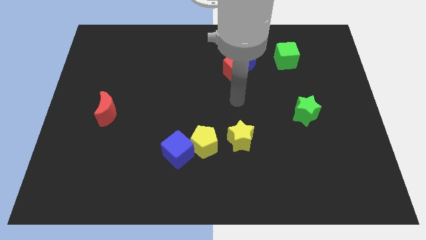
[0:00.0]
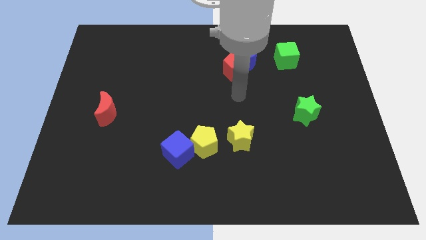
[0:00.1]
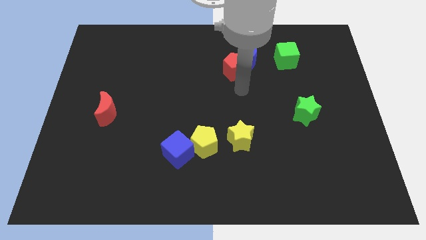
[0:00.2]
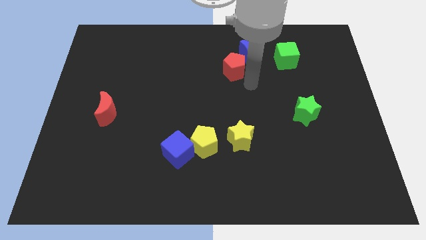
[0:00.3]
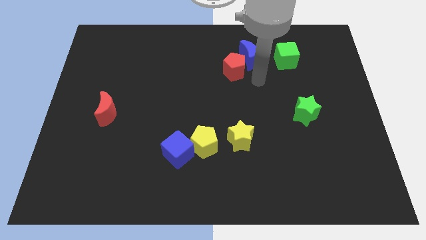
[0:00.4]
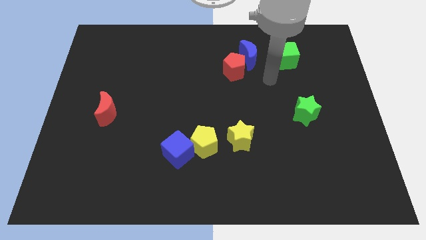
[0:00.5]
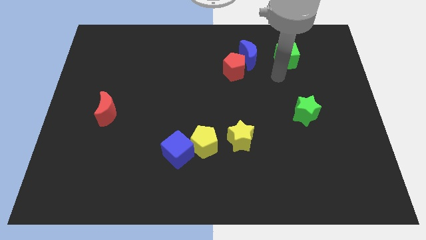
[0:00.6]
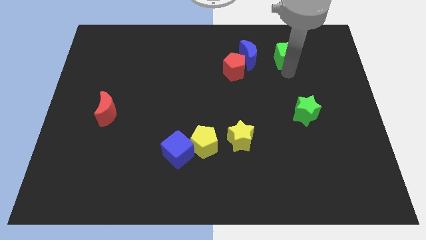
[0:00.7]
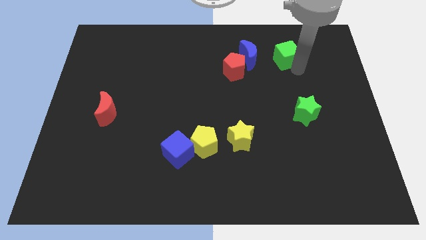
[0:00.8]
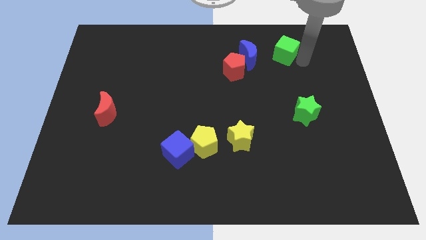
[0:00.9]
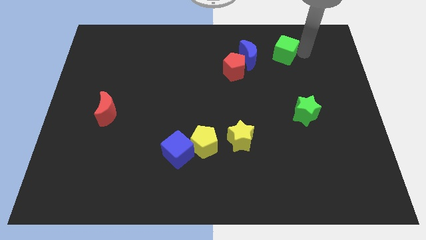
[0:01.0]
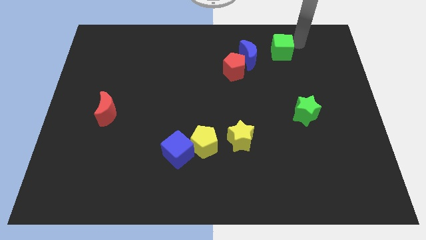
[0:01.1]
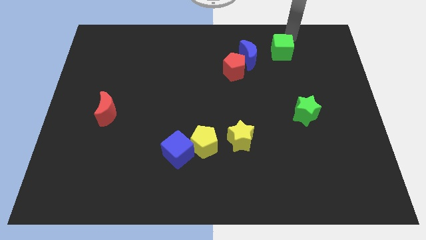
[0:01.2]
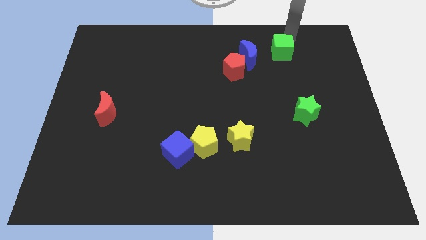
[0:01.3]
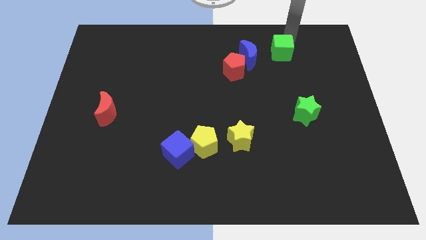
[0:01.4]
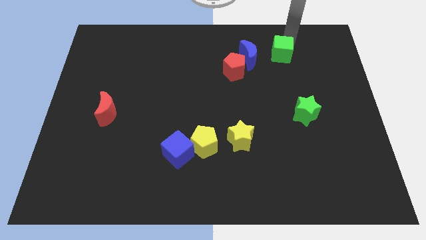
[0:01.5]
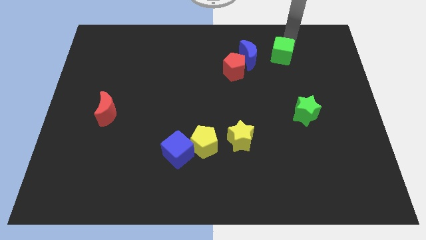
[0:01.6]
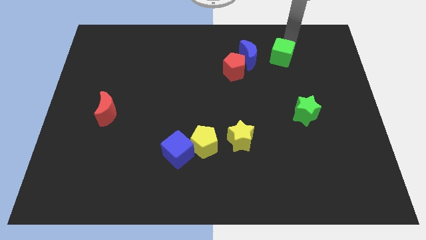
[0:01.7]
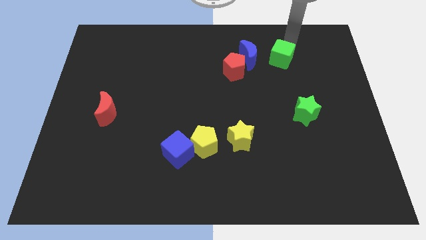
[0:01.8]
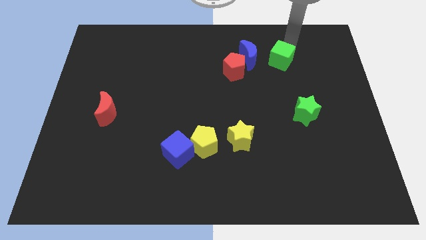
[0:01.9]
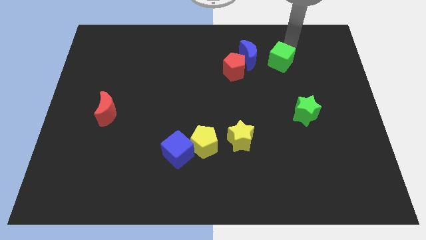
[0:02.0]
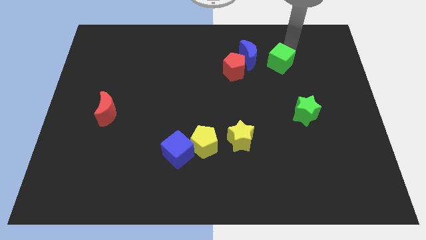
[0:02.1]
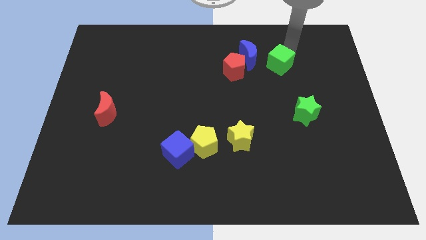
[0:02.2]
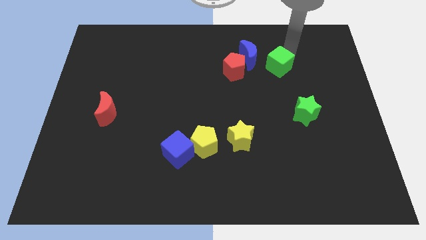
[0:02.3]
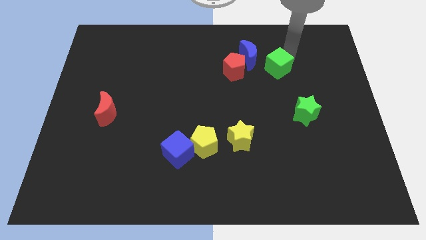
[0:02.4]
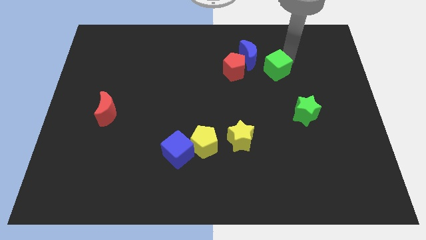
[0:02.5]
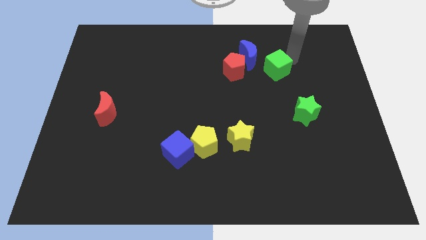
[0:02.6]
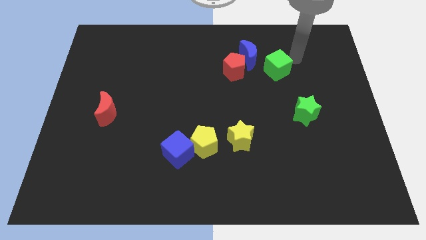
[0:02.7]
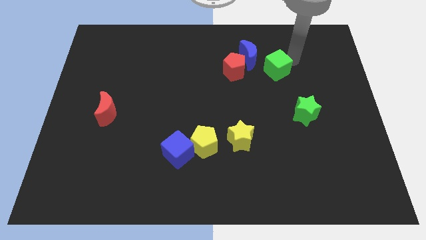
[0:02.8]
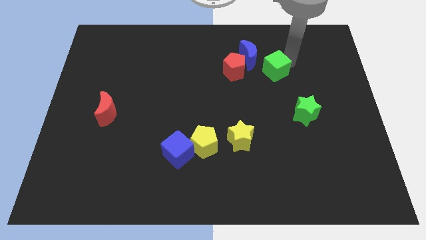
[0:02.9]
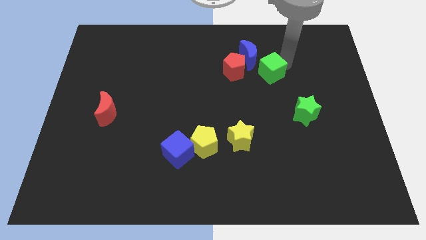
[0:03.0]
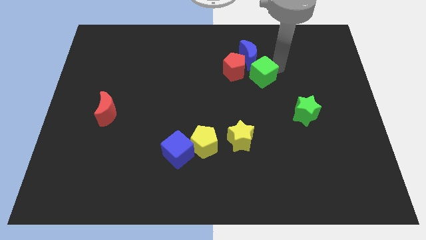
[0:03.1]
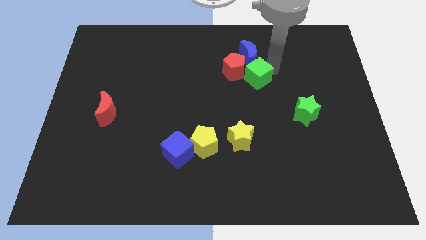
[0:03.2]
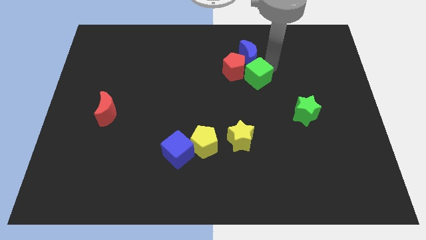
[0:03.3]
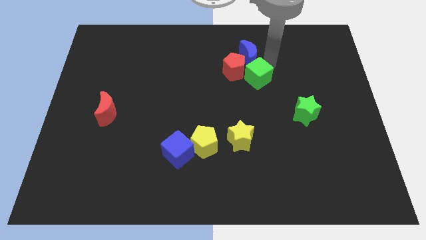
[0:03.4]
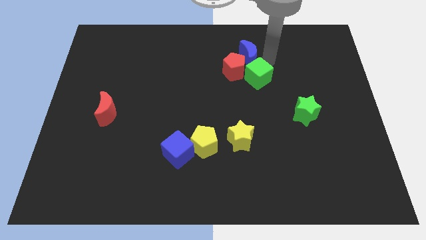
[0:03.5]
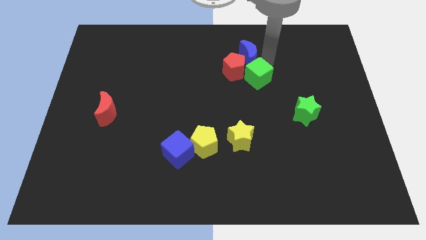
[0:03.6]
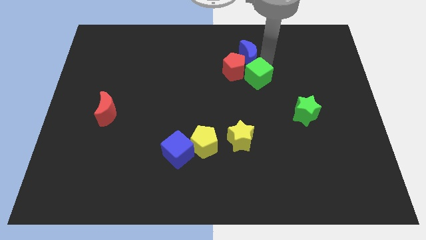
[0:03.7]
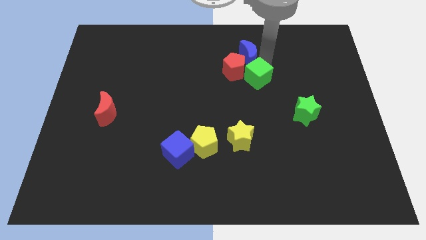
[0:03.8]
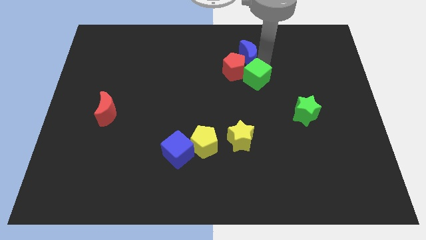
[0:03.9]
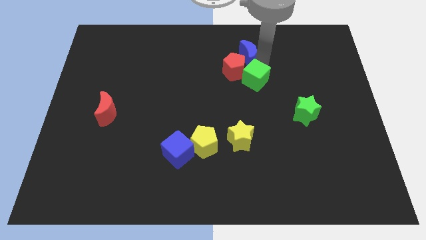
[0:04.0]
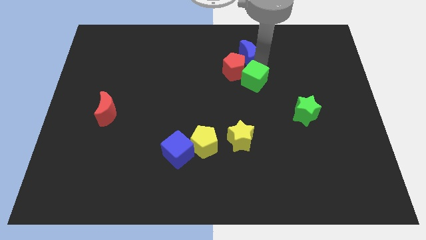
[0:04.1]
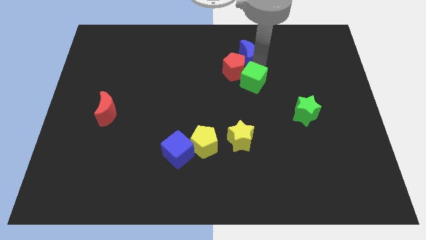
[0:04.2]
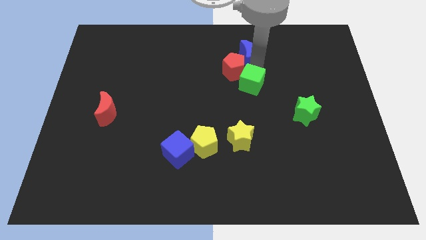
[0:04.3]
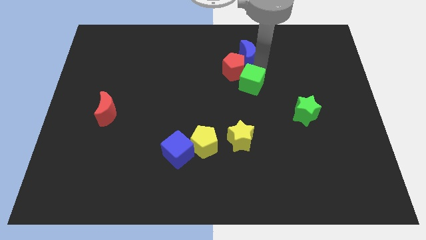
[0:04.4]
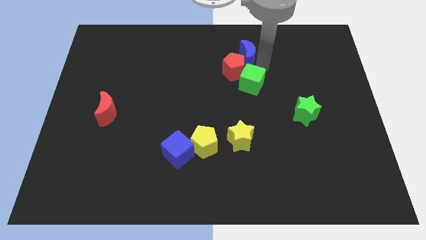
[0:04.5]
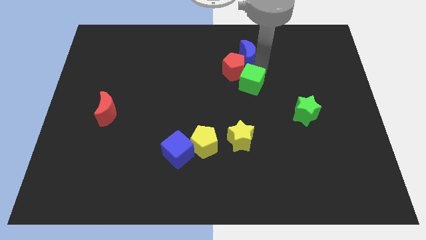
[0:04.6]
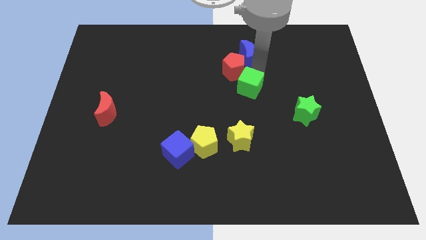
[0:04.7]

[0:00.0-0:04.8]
move the green cube to the top side of the yellow star

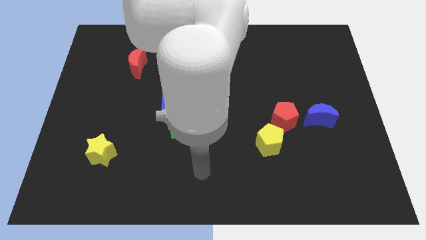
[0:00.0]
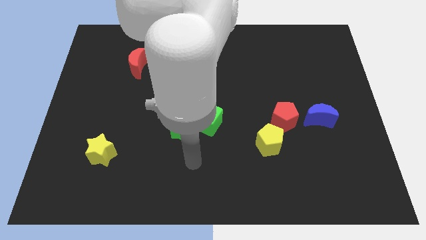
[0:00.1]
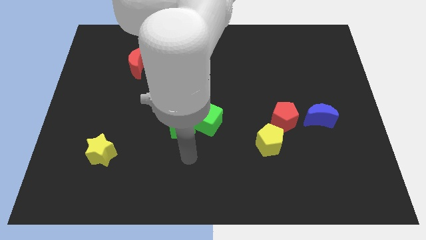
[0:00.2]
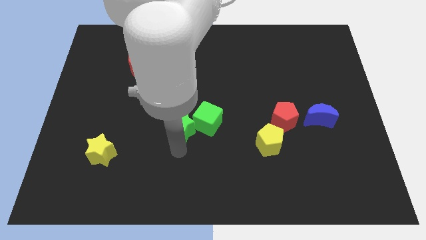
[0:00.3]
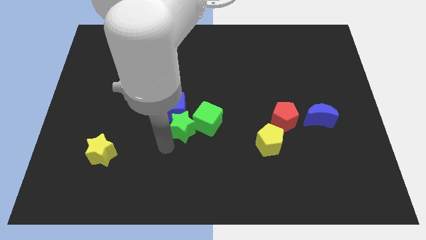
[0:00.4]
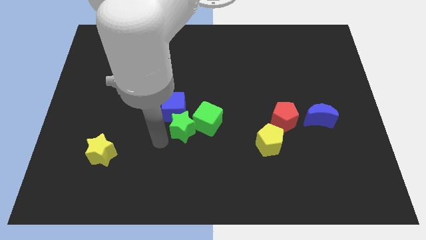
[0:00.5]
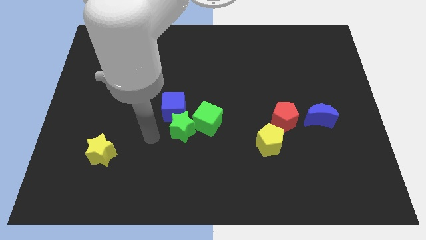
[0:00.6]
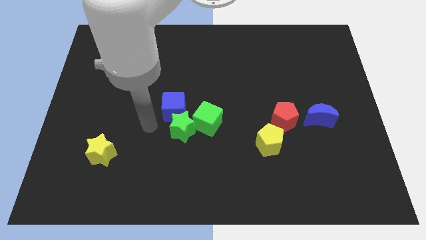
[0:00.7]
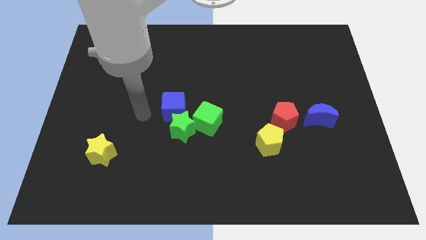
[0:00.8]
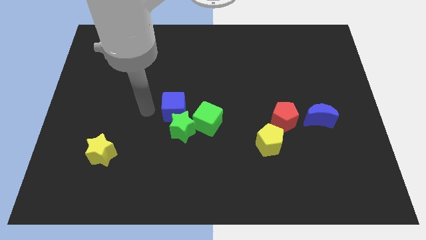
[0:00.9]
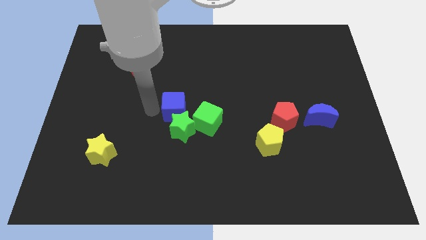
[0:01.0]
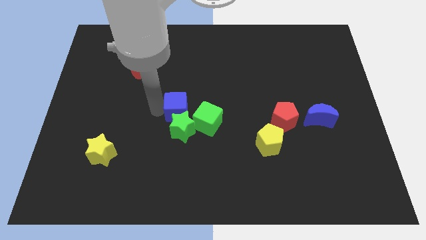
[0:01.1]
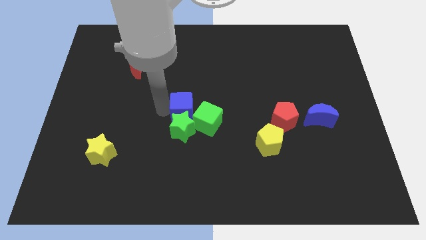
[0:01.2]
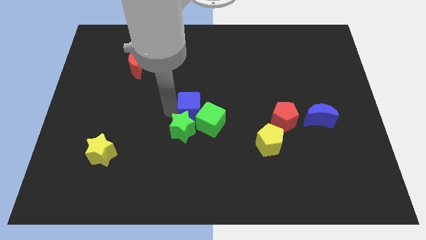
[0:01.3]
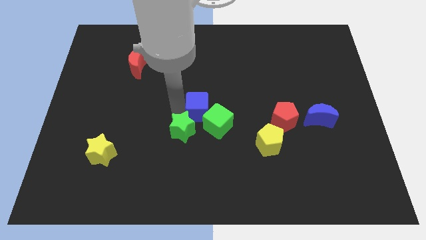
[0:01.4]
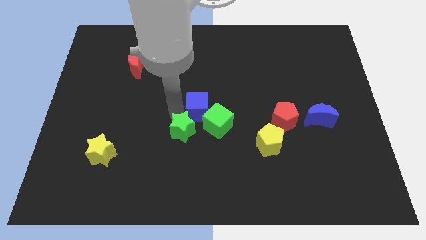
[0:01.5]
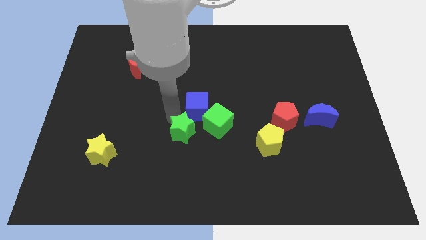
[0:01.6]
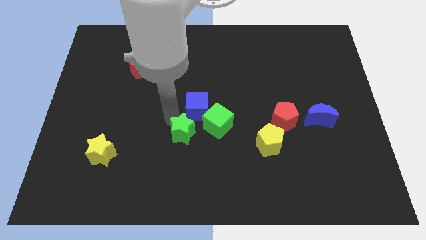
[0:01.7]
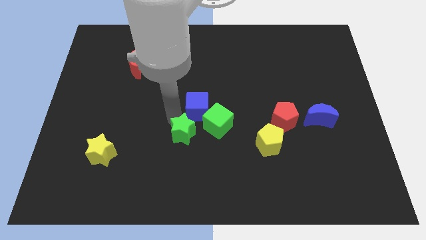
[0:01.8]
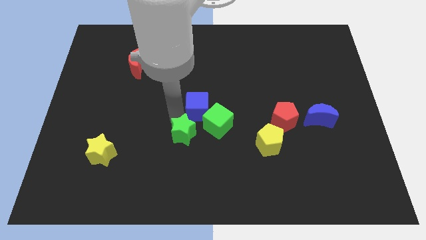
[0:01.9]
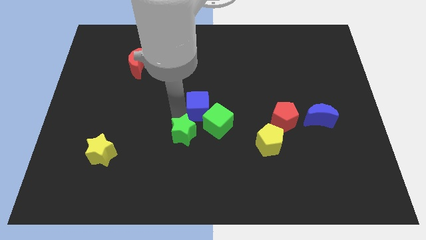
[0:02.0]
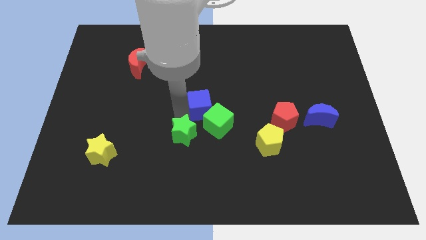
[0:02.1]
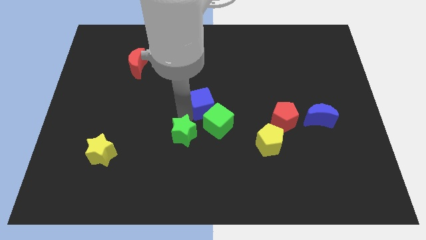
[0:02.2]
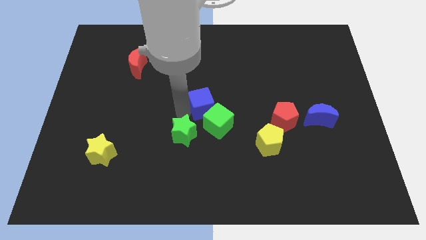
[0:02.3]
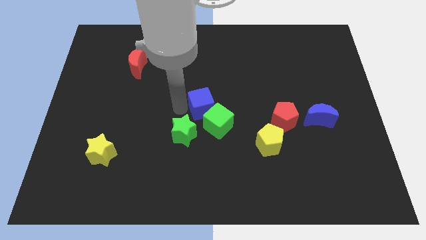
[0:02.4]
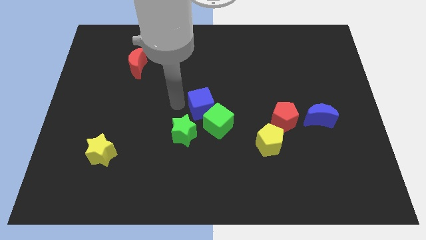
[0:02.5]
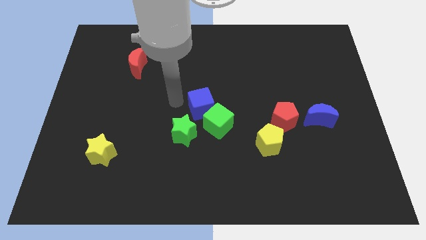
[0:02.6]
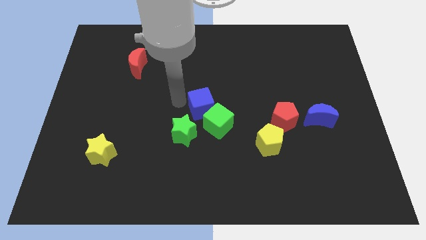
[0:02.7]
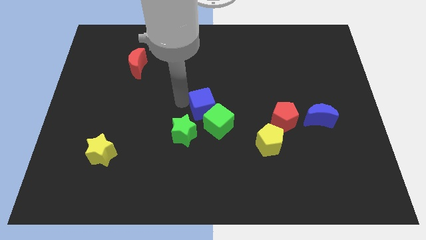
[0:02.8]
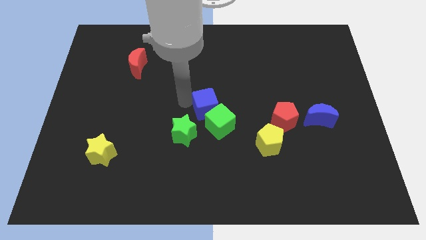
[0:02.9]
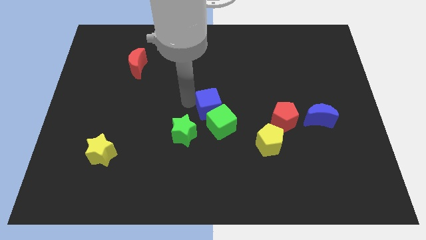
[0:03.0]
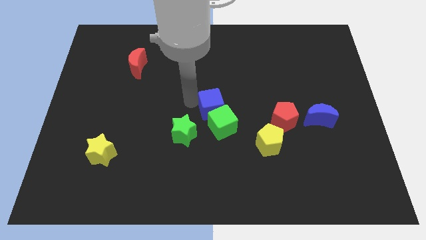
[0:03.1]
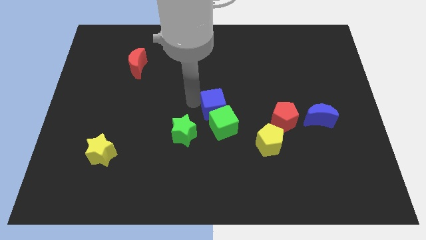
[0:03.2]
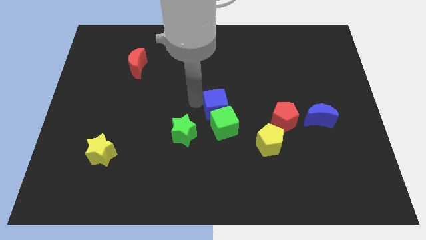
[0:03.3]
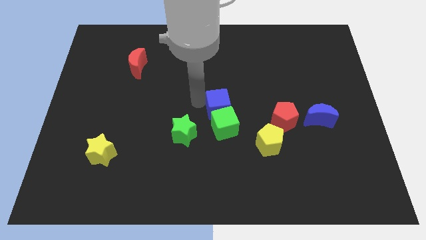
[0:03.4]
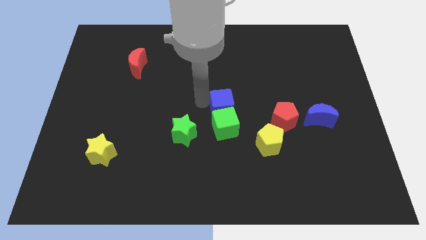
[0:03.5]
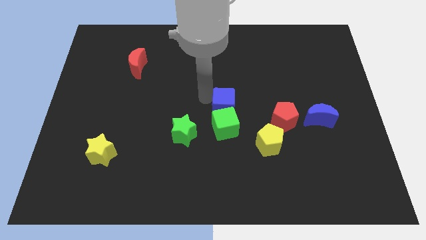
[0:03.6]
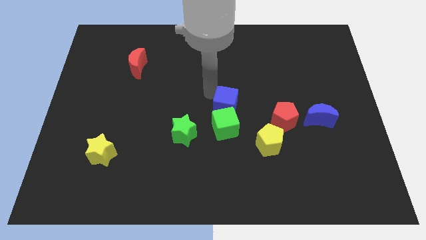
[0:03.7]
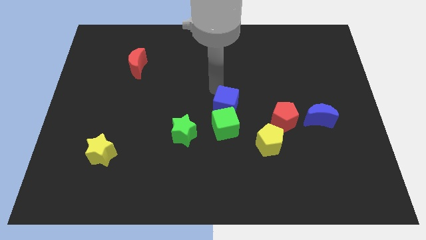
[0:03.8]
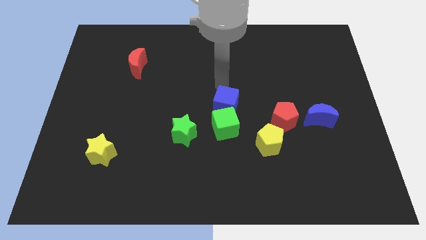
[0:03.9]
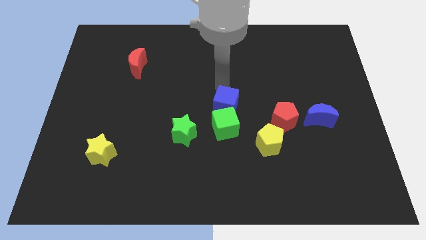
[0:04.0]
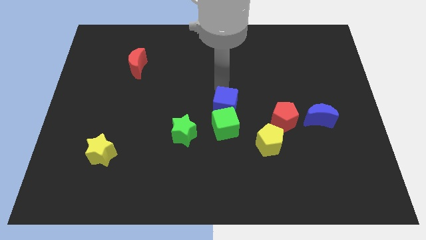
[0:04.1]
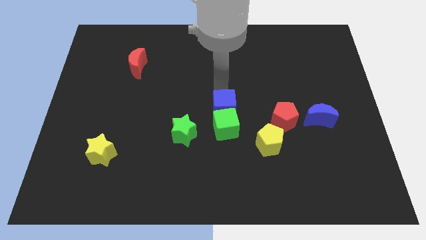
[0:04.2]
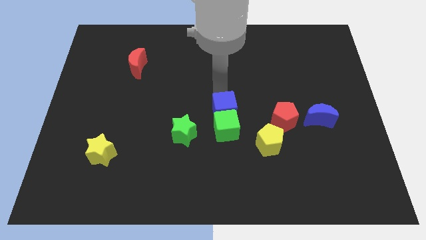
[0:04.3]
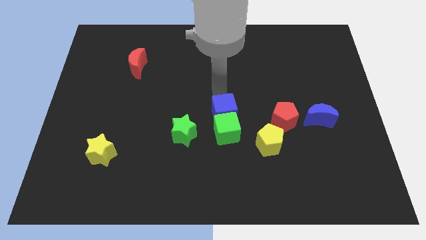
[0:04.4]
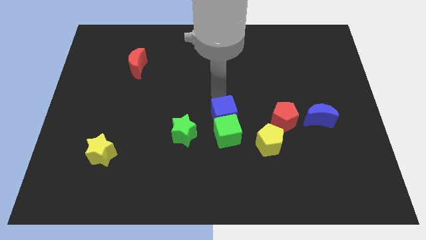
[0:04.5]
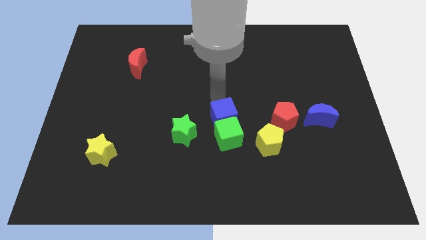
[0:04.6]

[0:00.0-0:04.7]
move the blue cube to the right side of the green star
